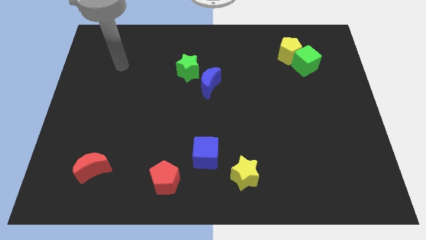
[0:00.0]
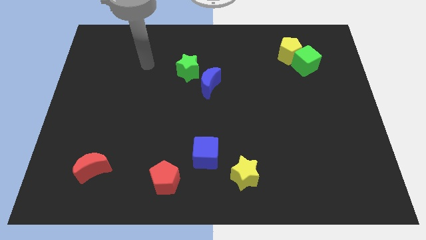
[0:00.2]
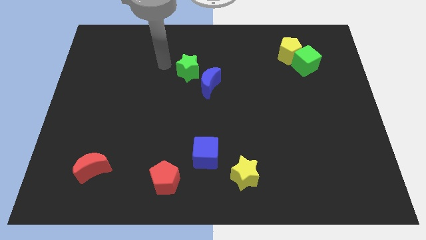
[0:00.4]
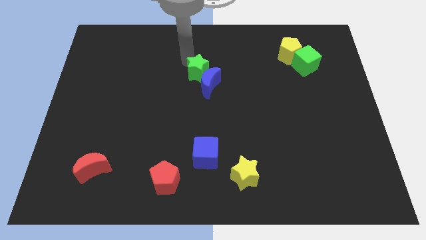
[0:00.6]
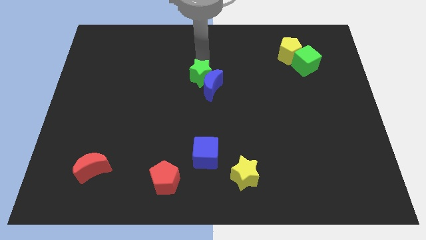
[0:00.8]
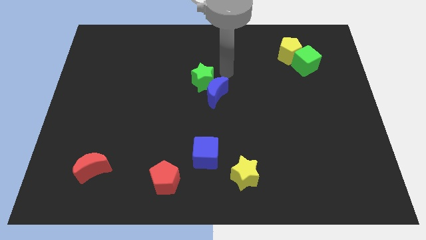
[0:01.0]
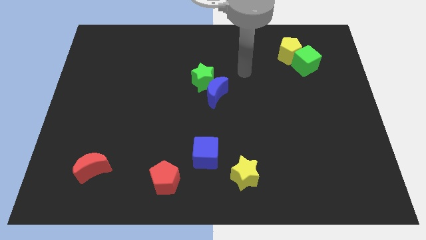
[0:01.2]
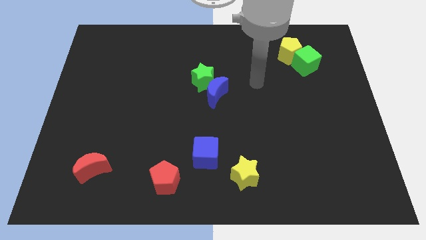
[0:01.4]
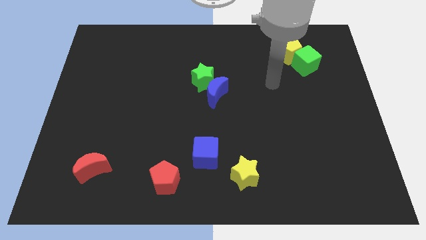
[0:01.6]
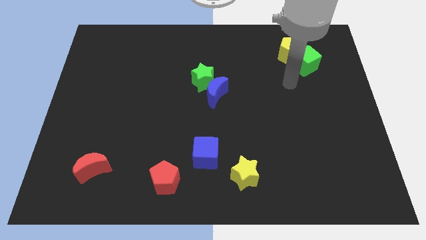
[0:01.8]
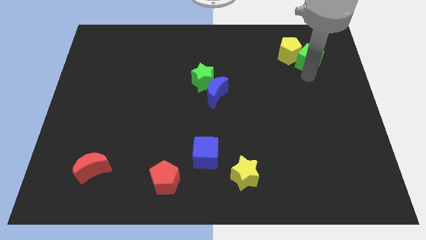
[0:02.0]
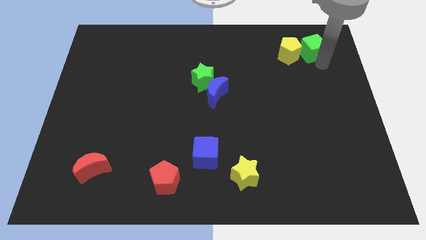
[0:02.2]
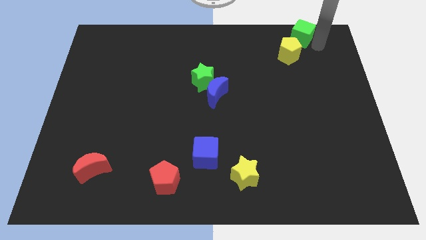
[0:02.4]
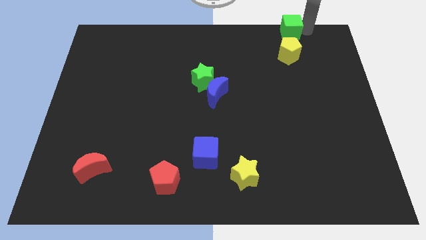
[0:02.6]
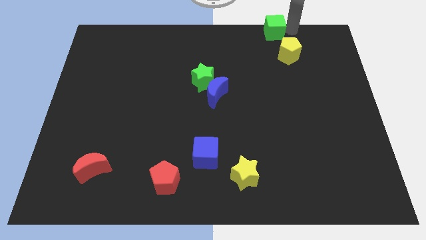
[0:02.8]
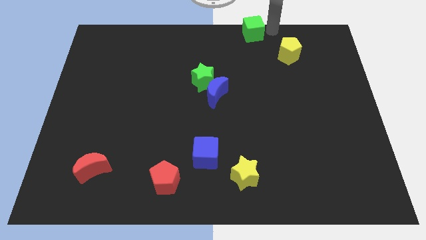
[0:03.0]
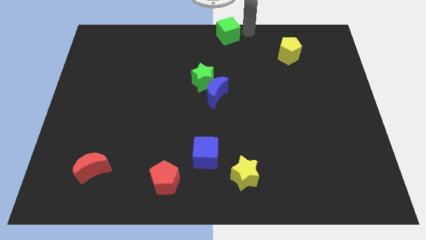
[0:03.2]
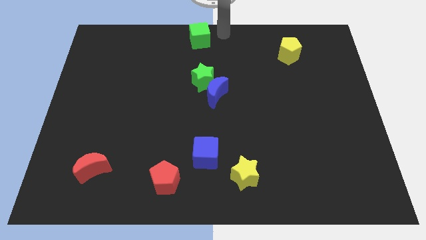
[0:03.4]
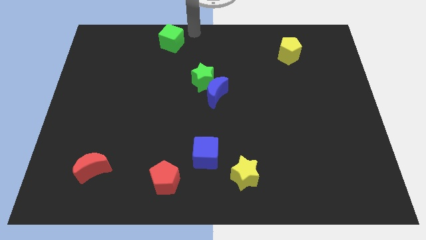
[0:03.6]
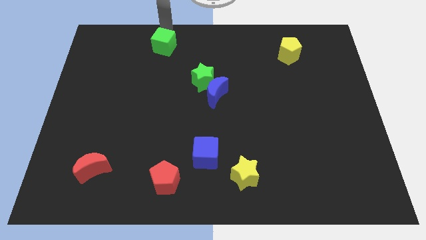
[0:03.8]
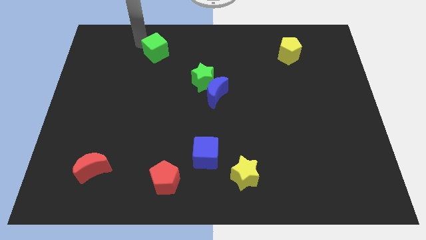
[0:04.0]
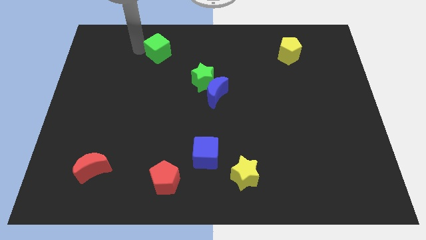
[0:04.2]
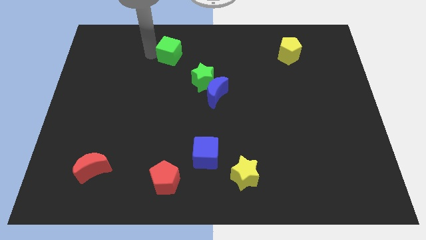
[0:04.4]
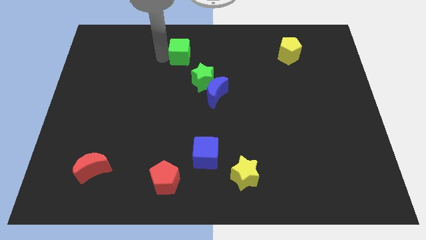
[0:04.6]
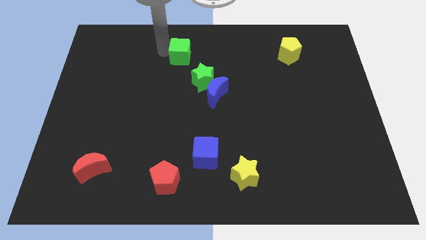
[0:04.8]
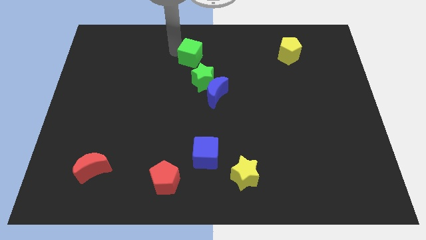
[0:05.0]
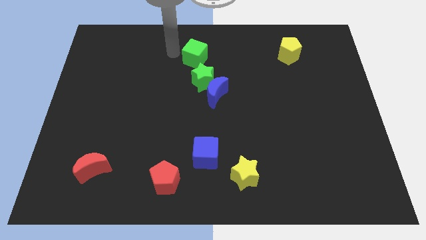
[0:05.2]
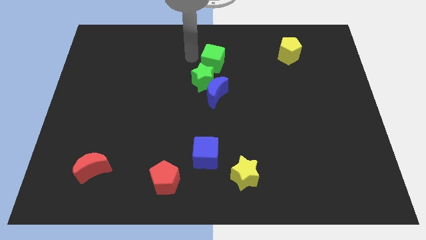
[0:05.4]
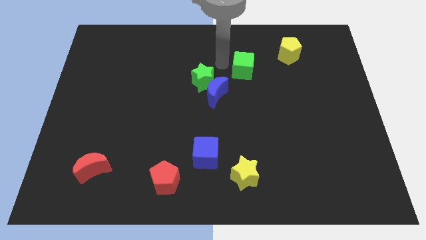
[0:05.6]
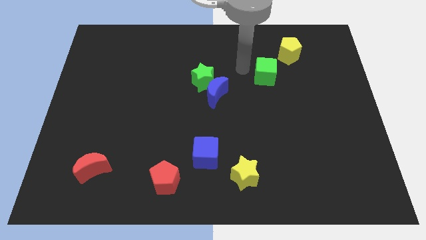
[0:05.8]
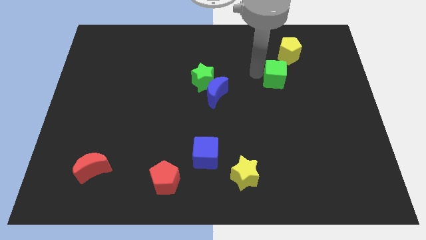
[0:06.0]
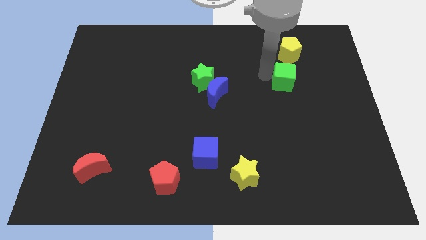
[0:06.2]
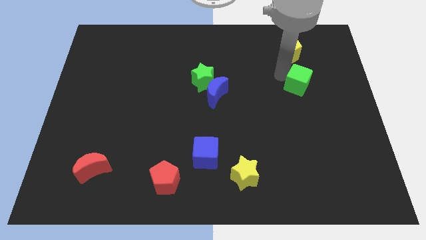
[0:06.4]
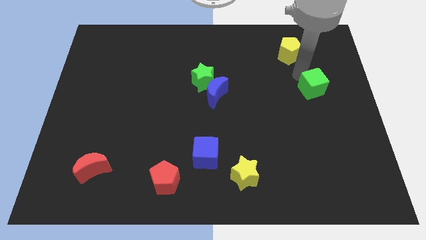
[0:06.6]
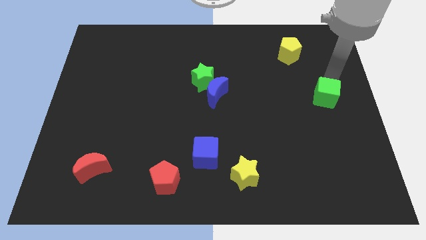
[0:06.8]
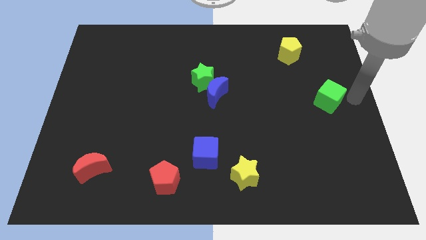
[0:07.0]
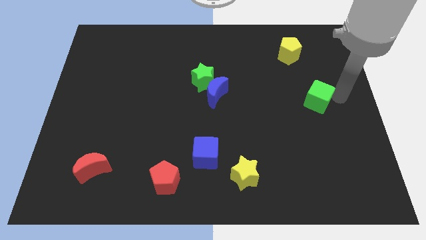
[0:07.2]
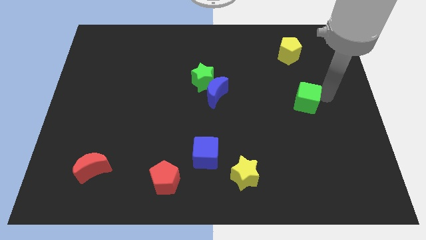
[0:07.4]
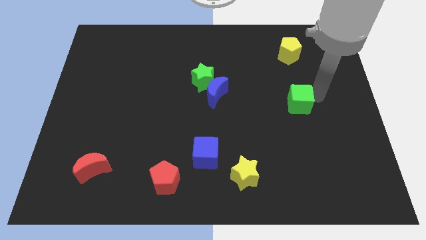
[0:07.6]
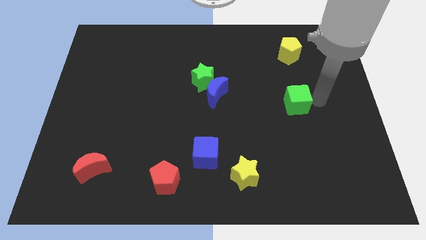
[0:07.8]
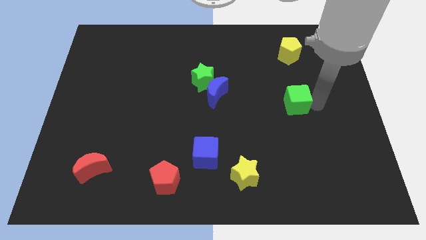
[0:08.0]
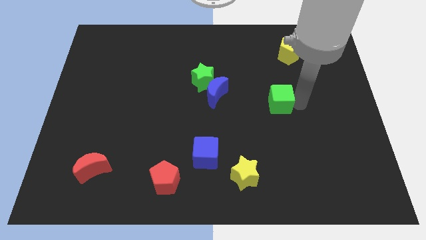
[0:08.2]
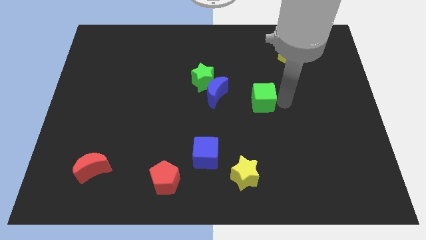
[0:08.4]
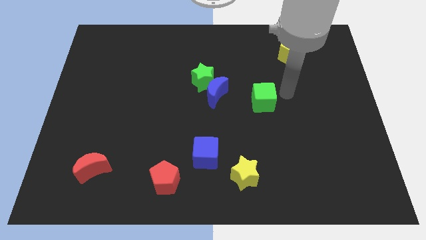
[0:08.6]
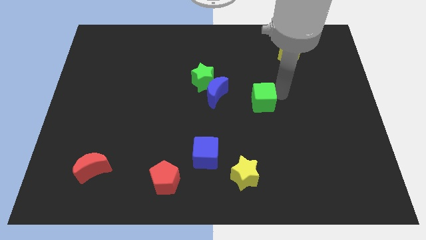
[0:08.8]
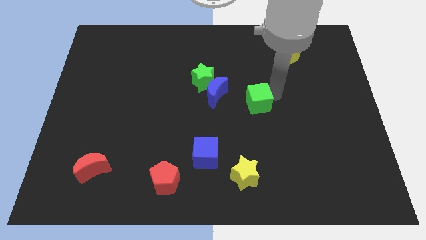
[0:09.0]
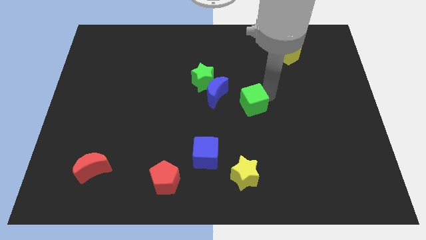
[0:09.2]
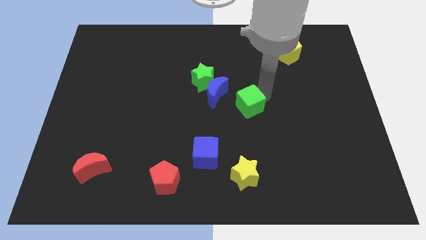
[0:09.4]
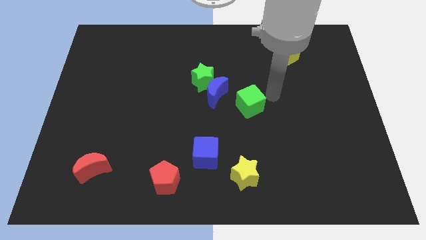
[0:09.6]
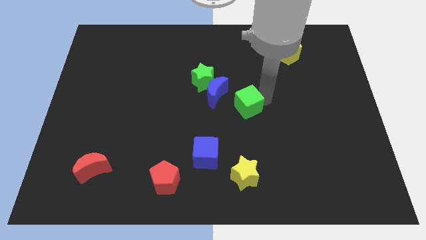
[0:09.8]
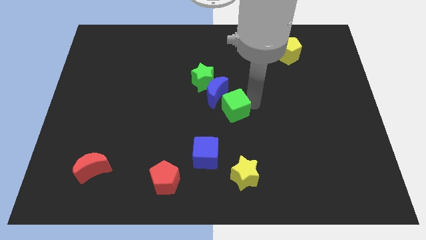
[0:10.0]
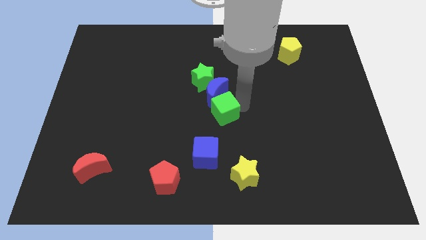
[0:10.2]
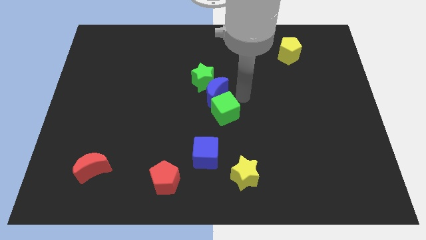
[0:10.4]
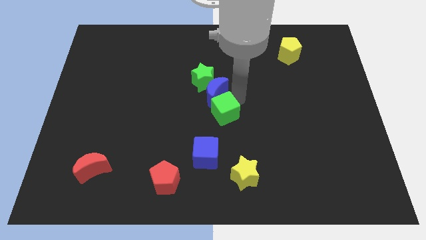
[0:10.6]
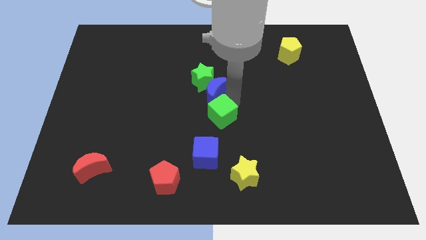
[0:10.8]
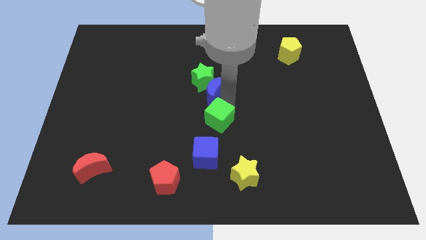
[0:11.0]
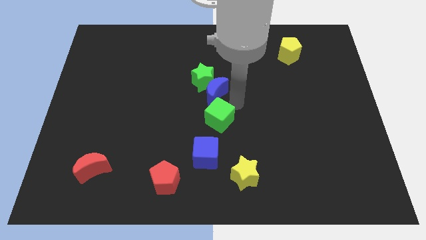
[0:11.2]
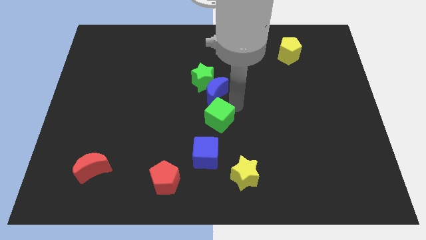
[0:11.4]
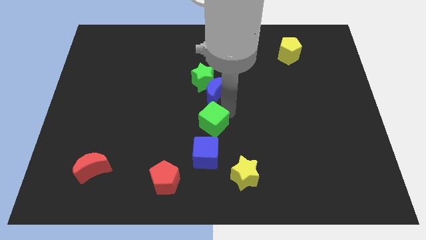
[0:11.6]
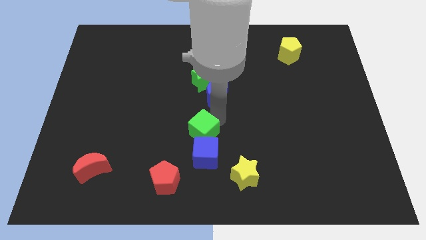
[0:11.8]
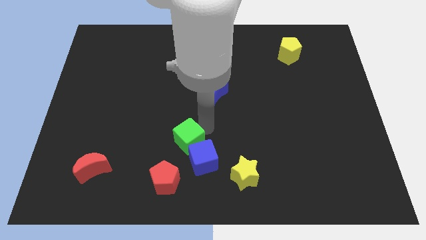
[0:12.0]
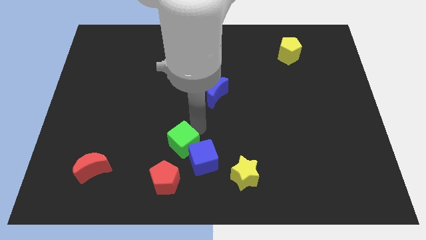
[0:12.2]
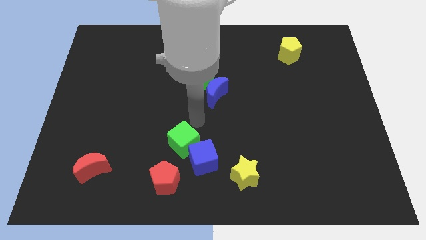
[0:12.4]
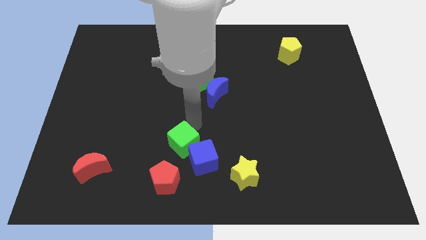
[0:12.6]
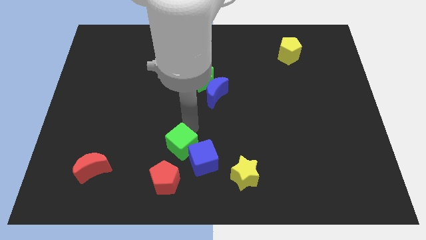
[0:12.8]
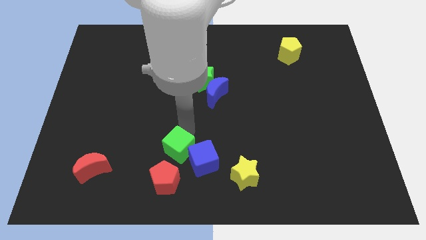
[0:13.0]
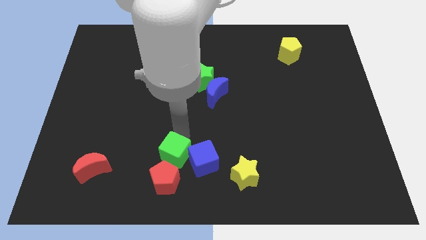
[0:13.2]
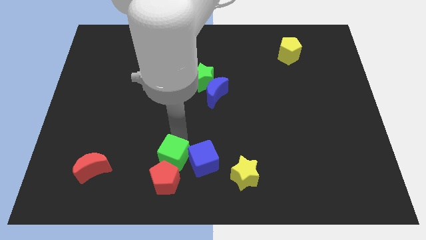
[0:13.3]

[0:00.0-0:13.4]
put the green cube close to the red pentagon

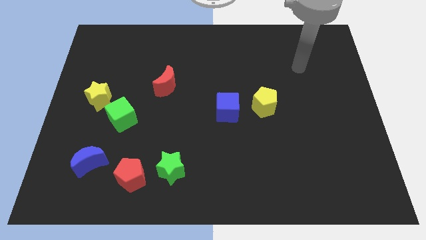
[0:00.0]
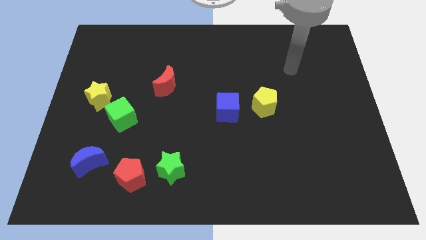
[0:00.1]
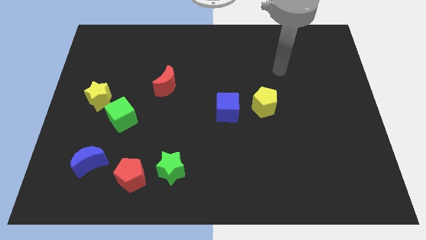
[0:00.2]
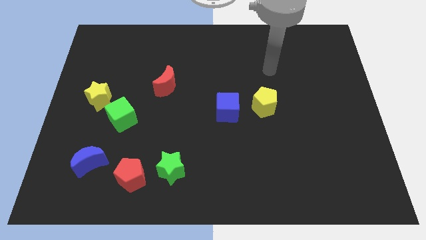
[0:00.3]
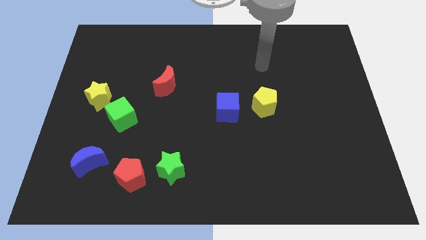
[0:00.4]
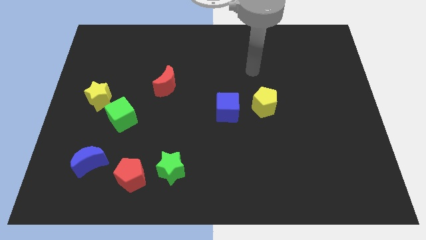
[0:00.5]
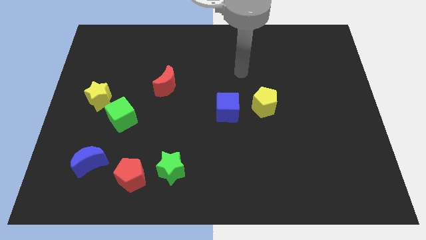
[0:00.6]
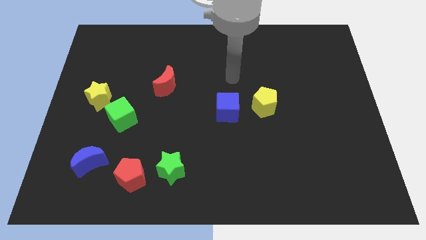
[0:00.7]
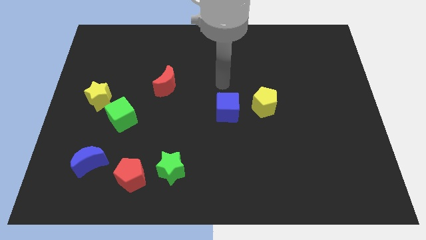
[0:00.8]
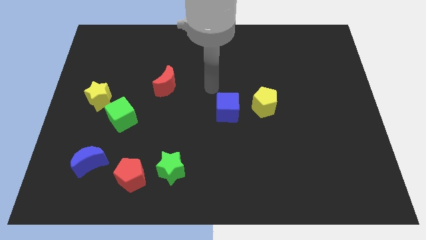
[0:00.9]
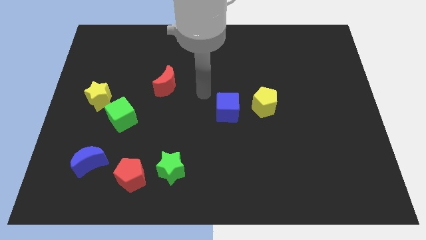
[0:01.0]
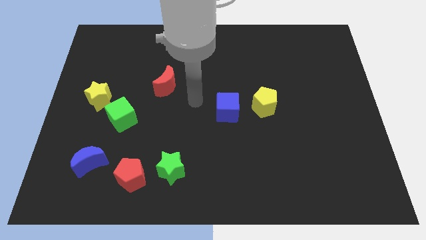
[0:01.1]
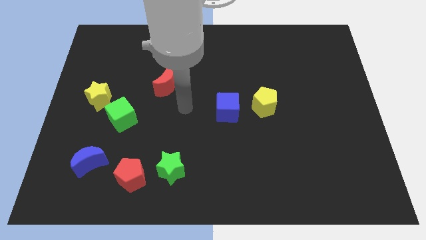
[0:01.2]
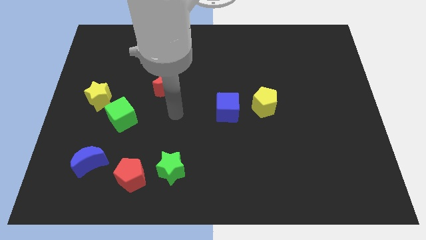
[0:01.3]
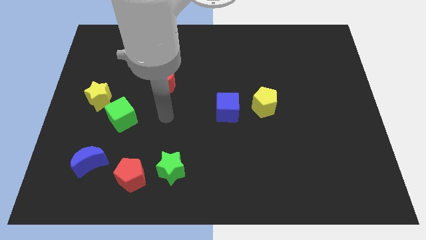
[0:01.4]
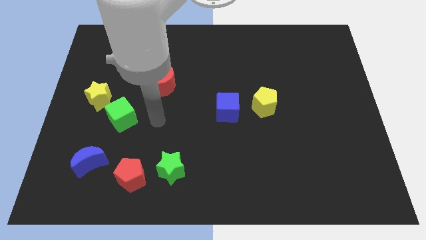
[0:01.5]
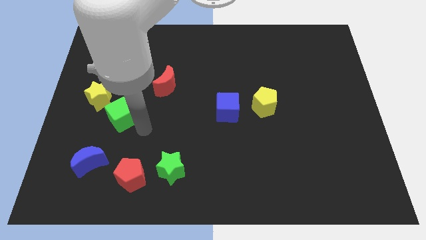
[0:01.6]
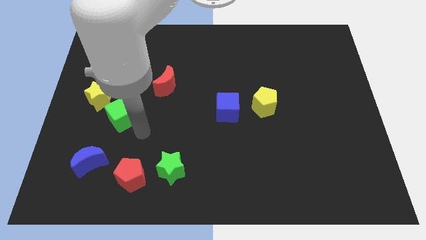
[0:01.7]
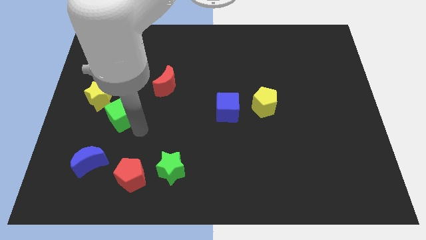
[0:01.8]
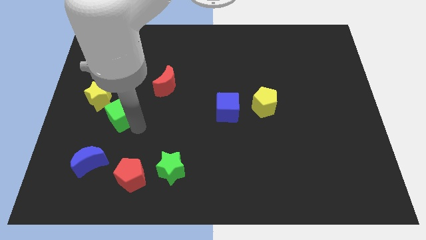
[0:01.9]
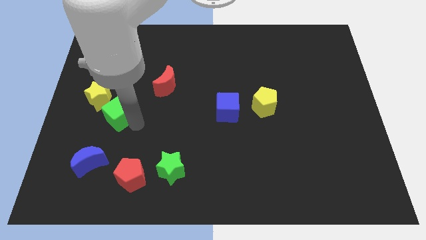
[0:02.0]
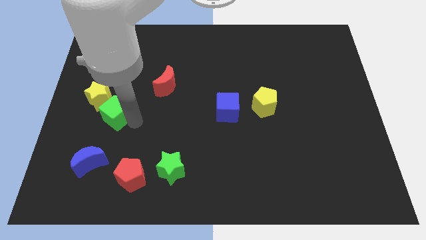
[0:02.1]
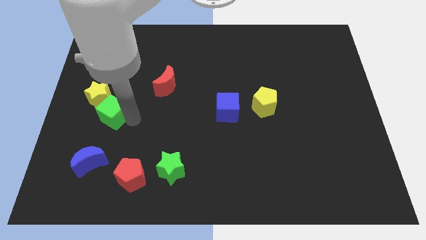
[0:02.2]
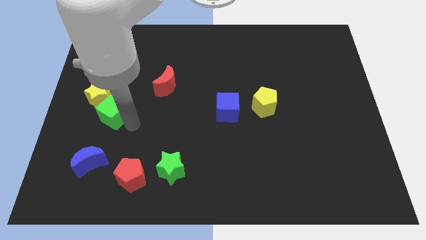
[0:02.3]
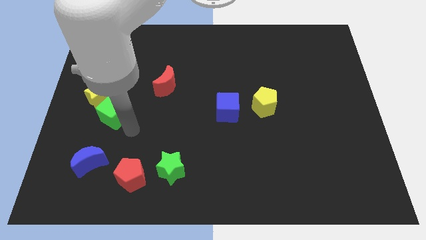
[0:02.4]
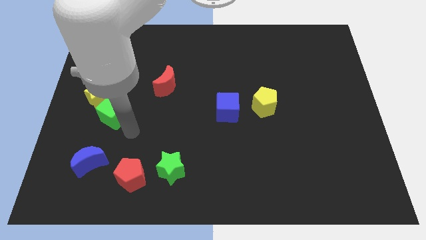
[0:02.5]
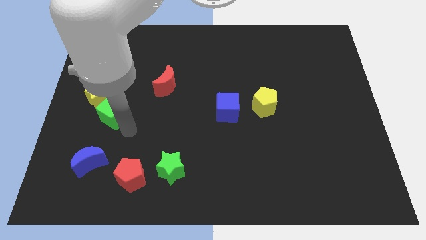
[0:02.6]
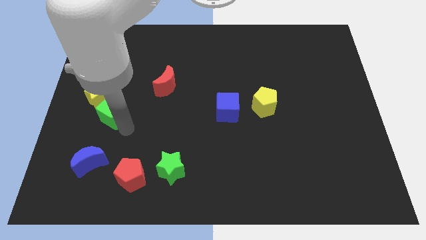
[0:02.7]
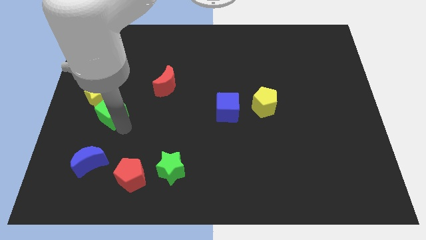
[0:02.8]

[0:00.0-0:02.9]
put the green cube to the yellow star
